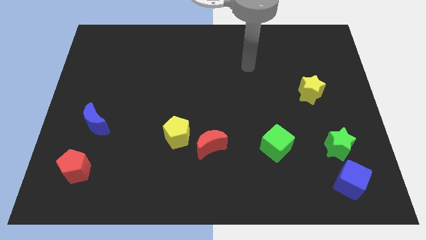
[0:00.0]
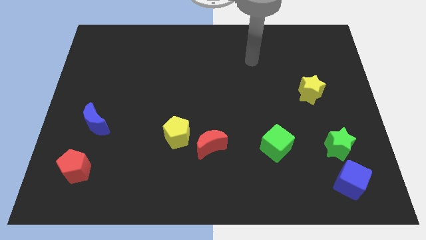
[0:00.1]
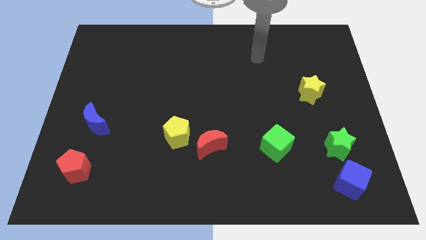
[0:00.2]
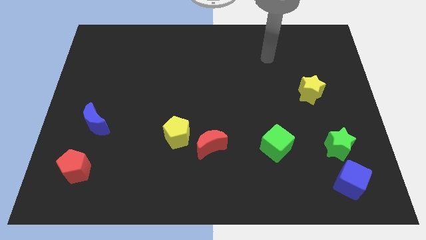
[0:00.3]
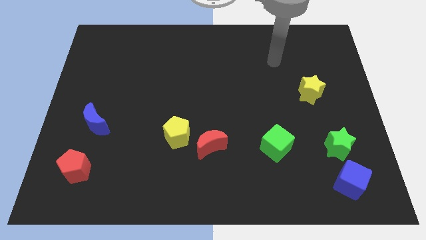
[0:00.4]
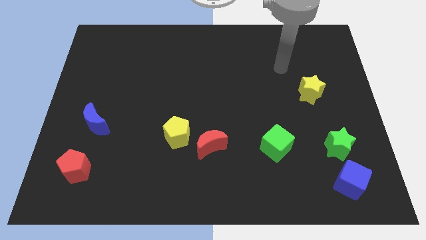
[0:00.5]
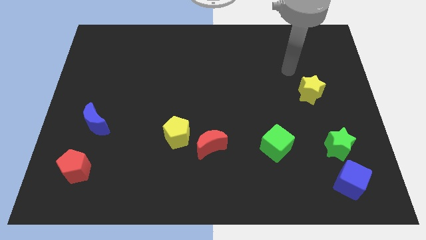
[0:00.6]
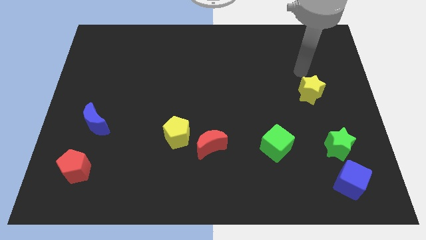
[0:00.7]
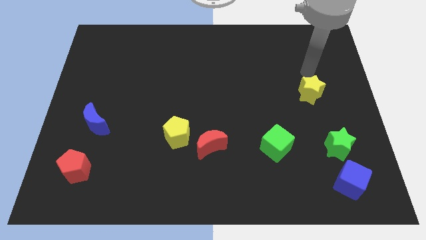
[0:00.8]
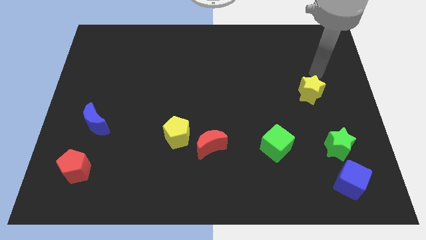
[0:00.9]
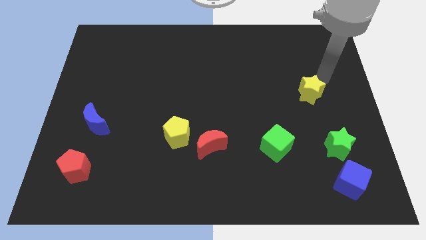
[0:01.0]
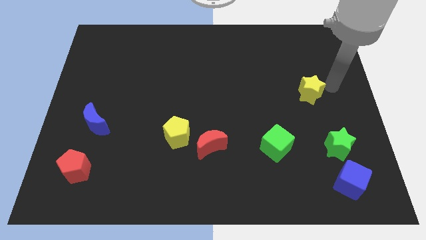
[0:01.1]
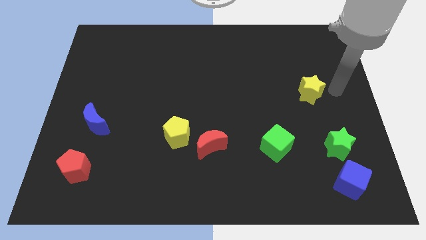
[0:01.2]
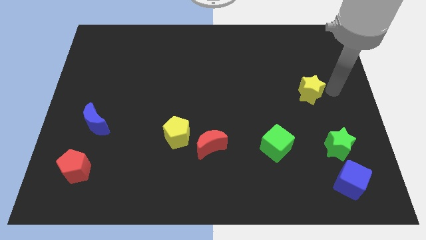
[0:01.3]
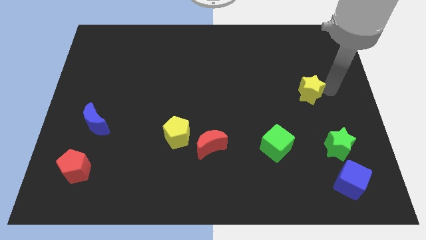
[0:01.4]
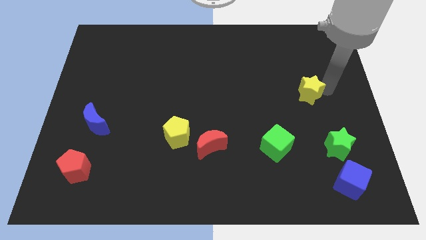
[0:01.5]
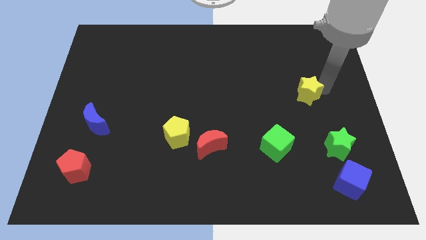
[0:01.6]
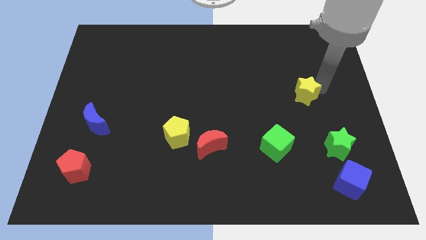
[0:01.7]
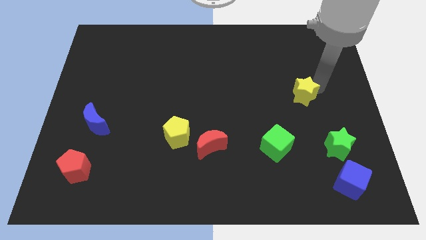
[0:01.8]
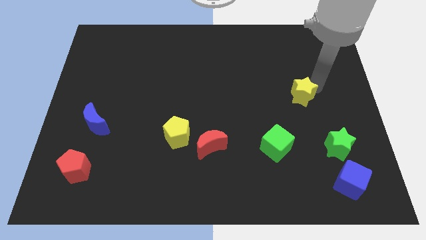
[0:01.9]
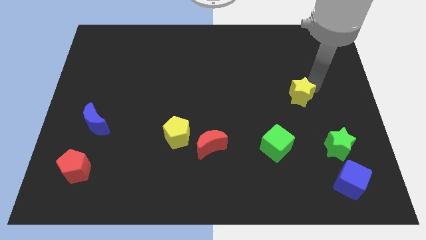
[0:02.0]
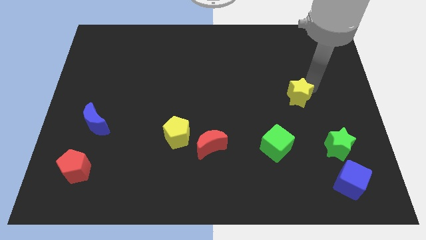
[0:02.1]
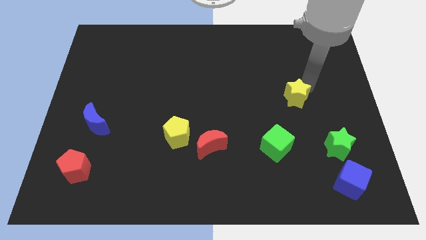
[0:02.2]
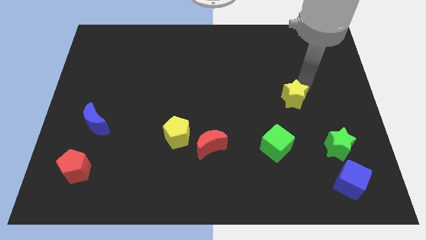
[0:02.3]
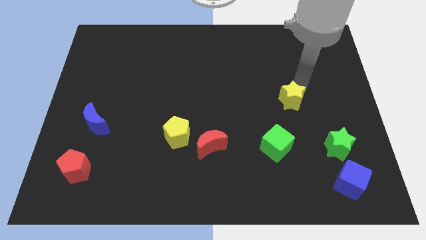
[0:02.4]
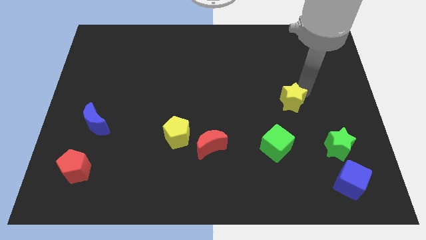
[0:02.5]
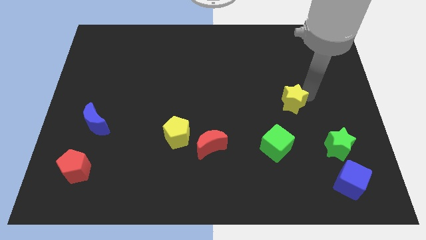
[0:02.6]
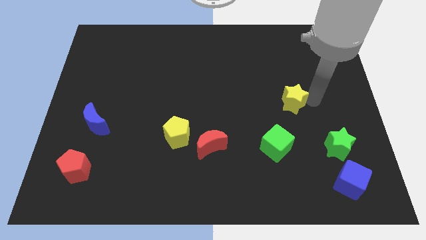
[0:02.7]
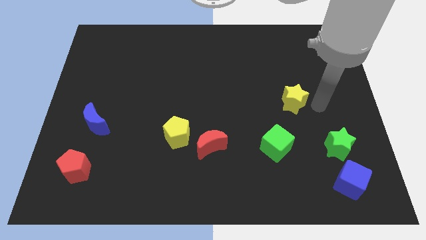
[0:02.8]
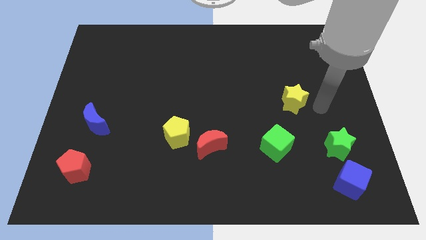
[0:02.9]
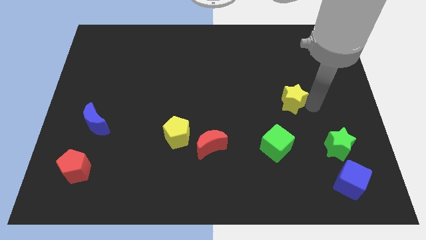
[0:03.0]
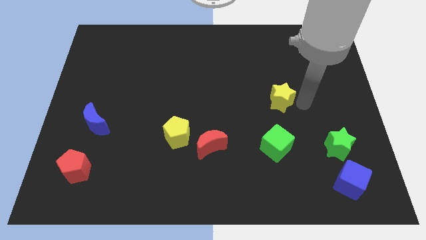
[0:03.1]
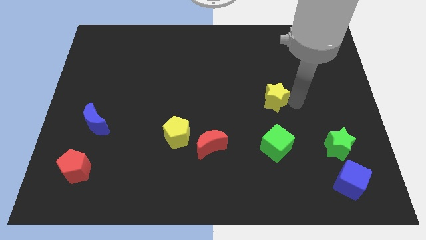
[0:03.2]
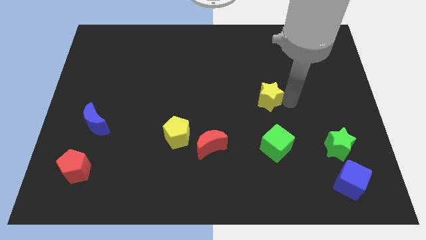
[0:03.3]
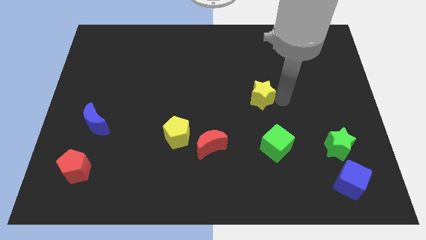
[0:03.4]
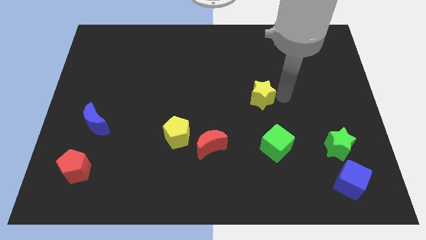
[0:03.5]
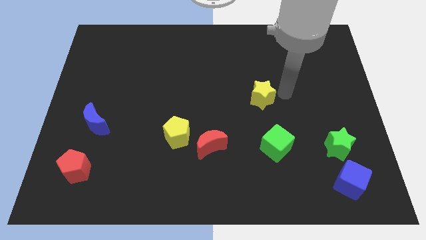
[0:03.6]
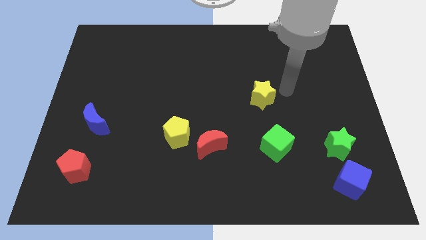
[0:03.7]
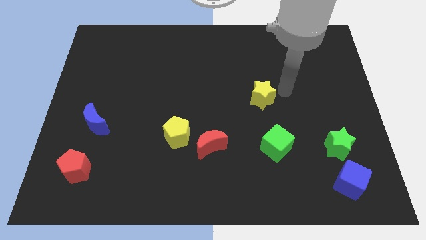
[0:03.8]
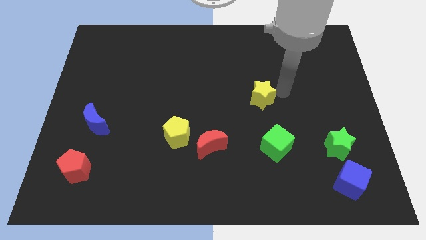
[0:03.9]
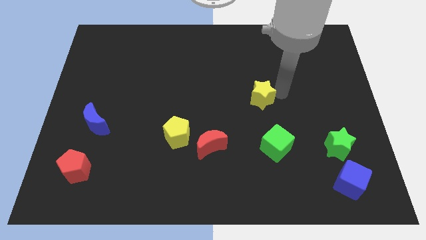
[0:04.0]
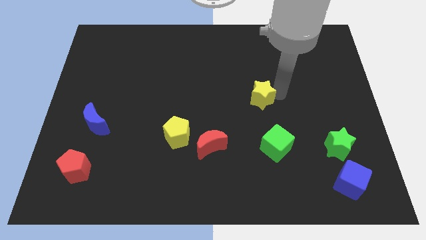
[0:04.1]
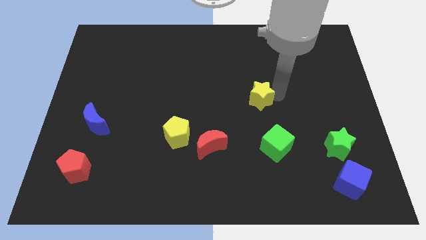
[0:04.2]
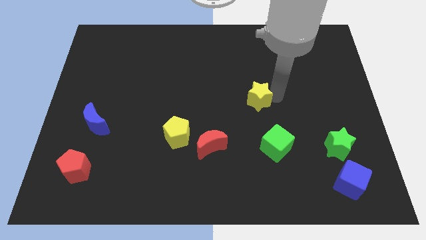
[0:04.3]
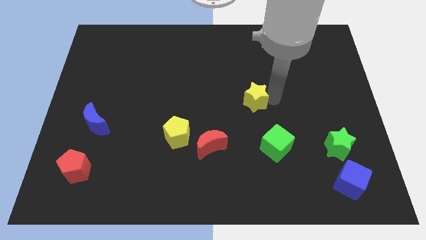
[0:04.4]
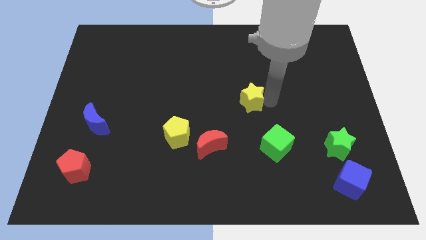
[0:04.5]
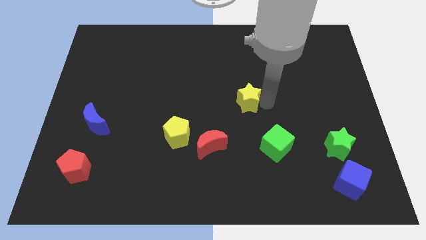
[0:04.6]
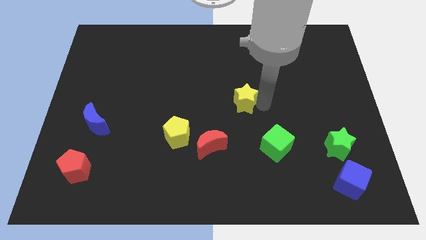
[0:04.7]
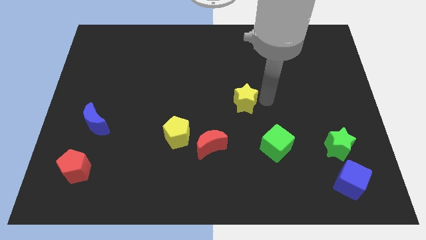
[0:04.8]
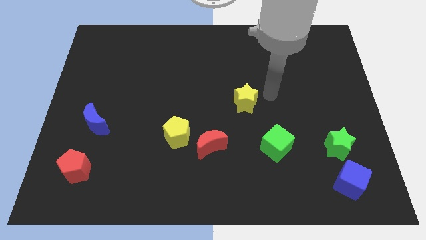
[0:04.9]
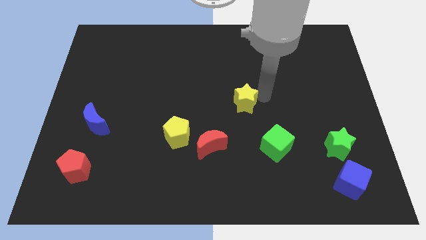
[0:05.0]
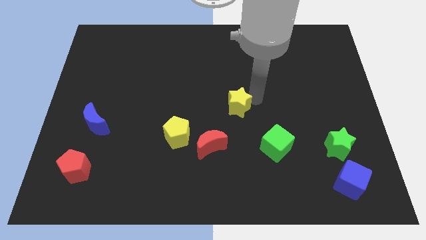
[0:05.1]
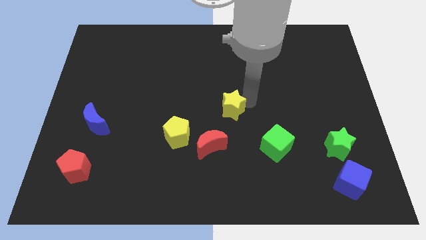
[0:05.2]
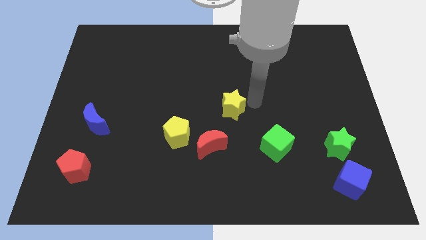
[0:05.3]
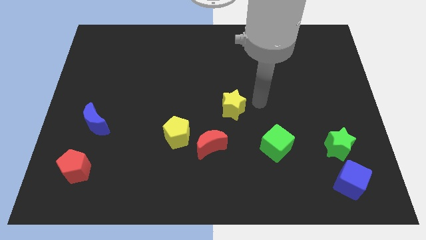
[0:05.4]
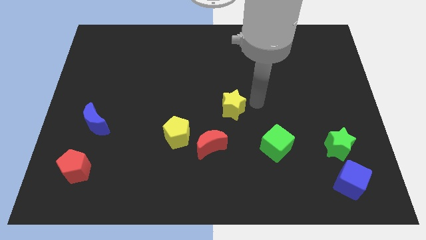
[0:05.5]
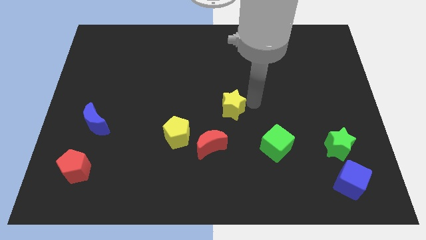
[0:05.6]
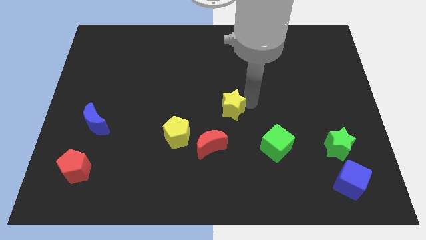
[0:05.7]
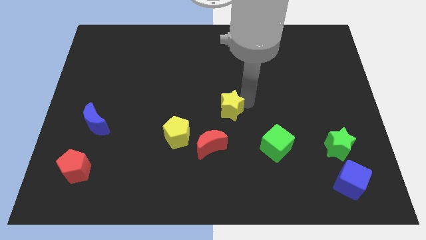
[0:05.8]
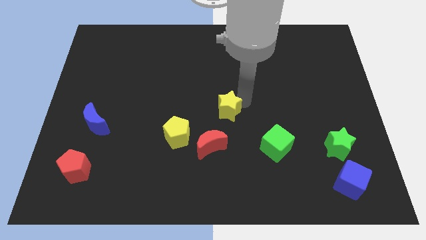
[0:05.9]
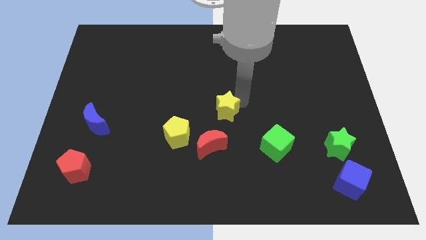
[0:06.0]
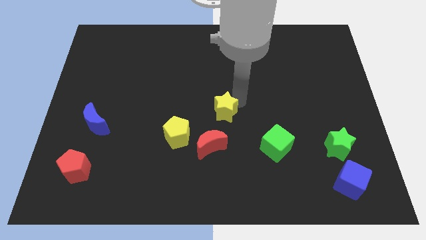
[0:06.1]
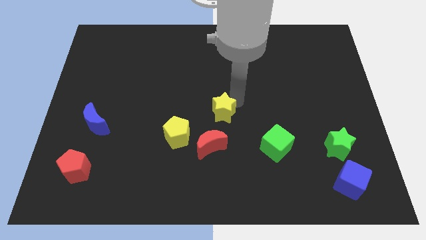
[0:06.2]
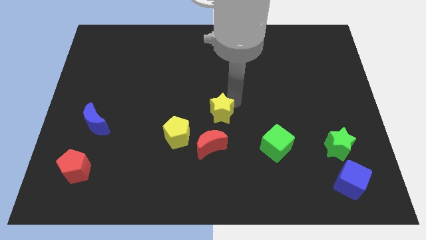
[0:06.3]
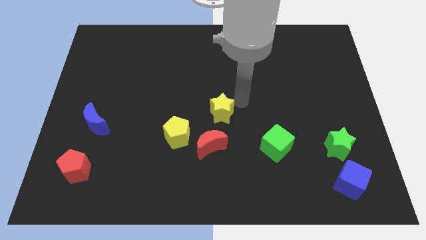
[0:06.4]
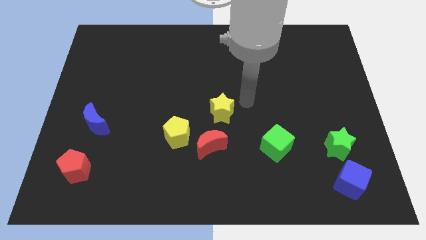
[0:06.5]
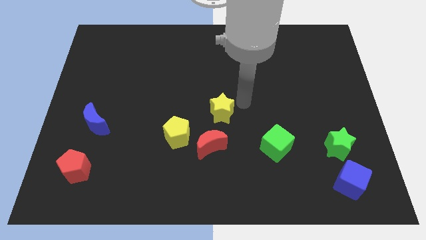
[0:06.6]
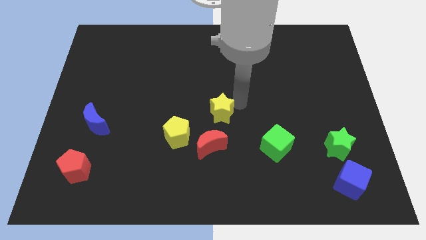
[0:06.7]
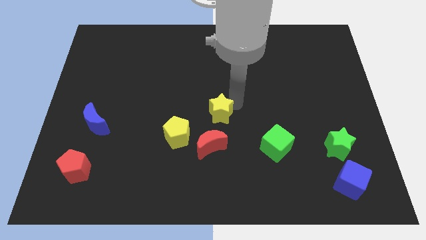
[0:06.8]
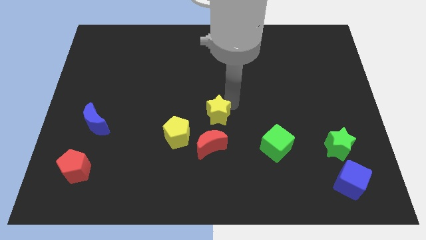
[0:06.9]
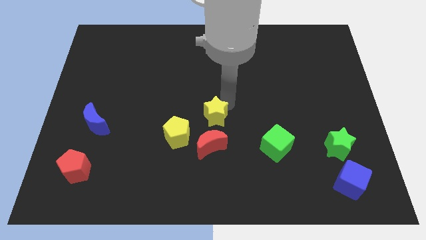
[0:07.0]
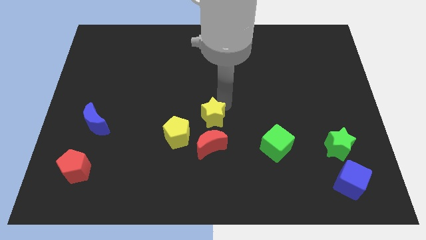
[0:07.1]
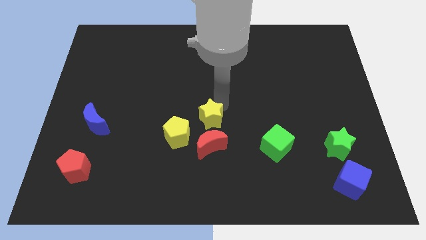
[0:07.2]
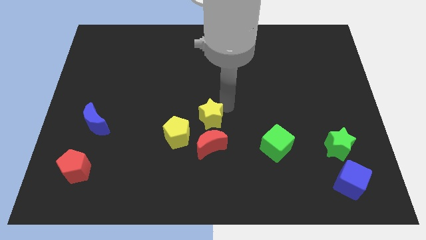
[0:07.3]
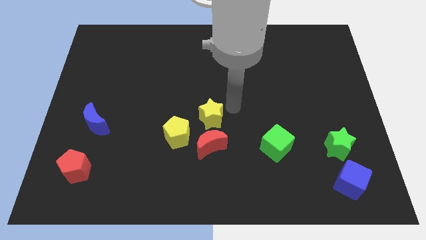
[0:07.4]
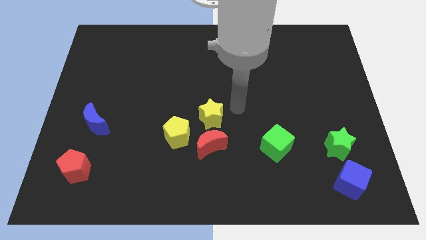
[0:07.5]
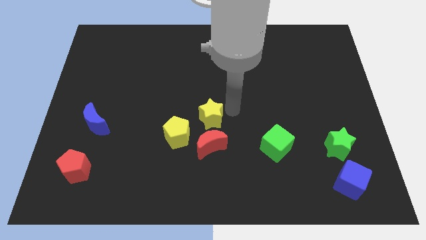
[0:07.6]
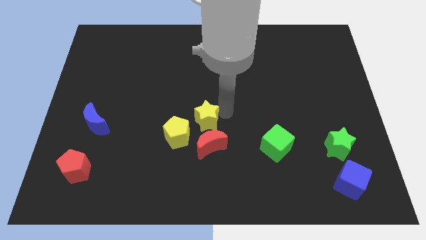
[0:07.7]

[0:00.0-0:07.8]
put the yellow star to the top left side of the red moon
